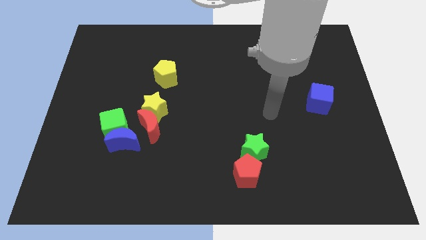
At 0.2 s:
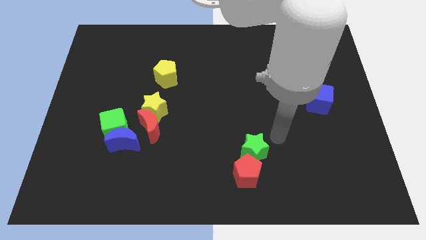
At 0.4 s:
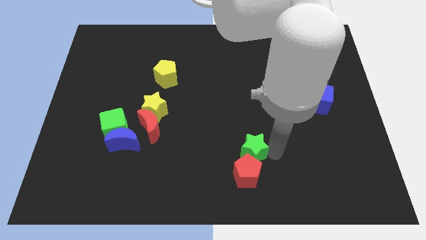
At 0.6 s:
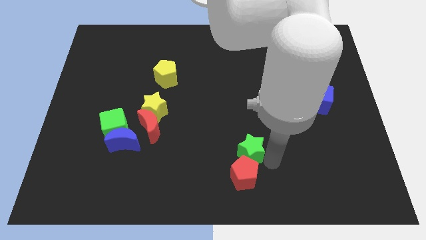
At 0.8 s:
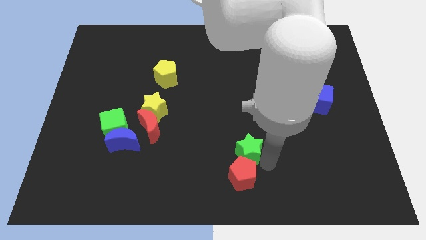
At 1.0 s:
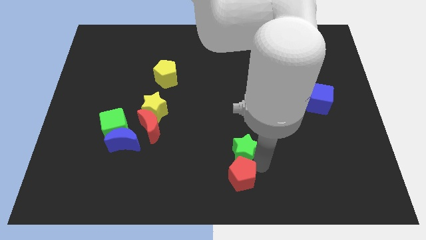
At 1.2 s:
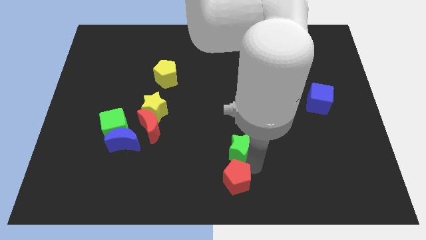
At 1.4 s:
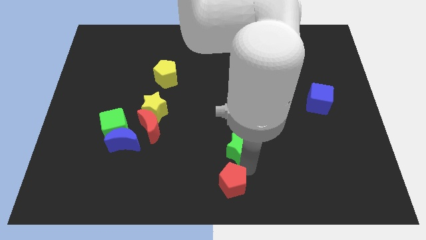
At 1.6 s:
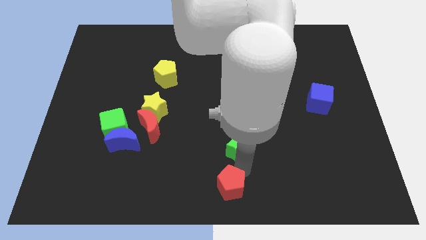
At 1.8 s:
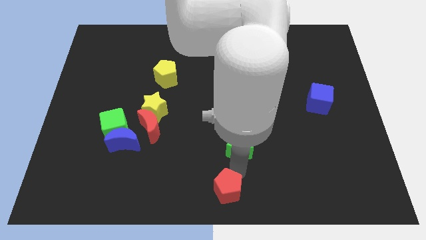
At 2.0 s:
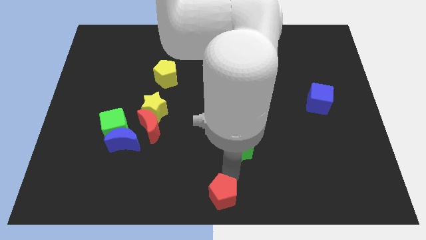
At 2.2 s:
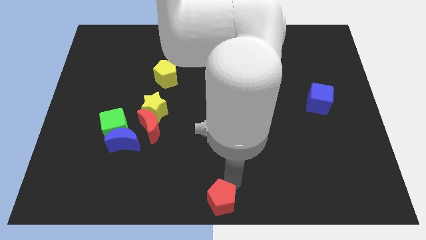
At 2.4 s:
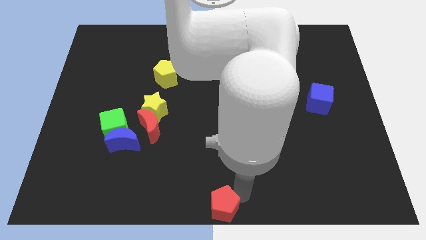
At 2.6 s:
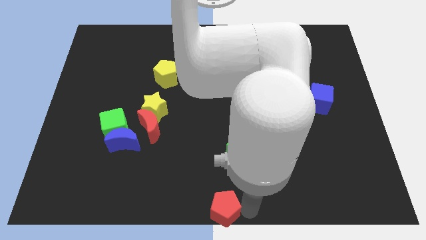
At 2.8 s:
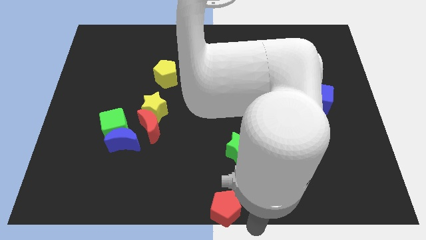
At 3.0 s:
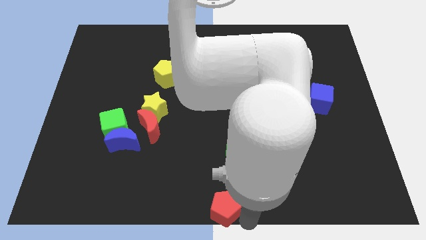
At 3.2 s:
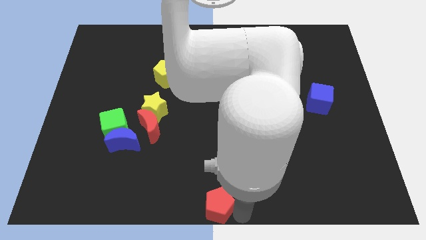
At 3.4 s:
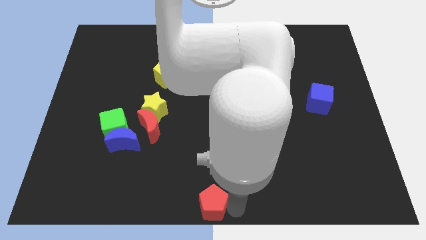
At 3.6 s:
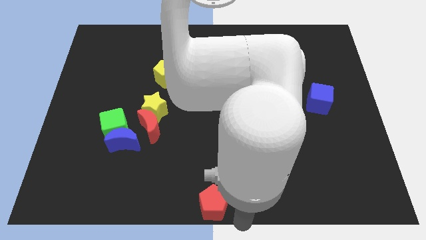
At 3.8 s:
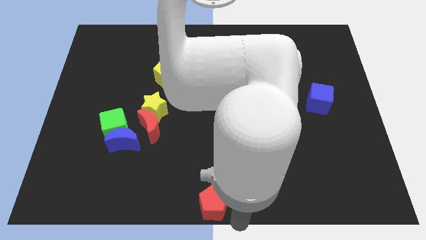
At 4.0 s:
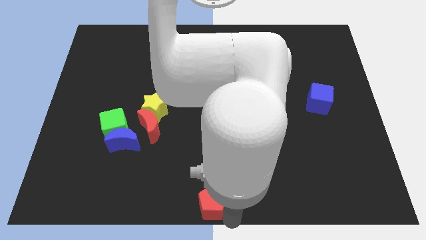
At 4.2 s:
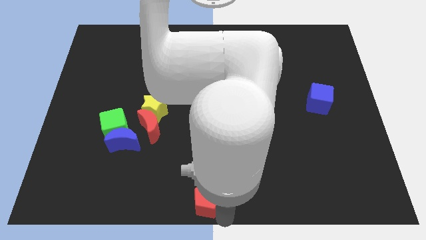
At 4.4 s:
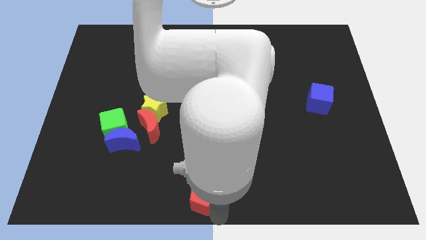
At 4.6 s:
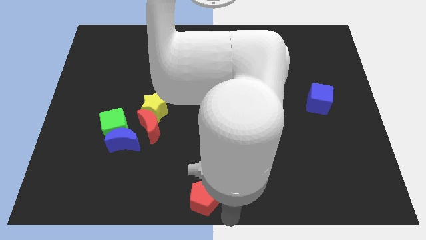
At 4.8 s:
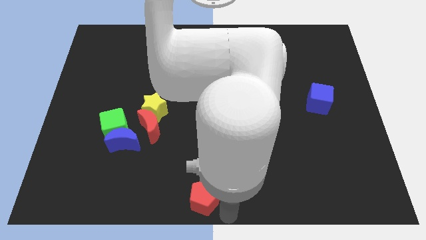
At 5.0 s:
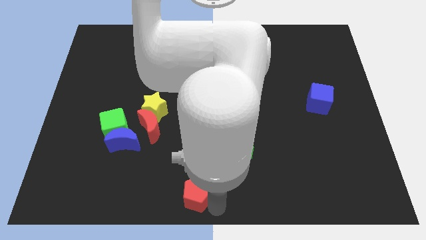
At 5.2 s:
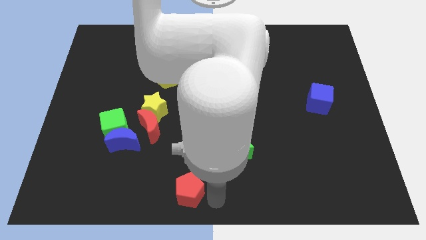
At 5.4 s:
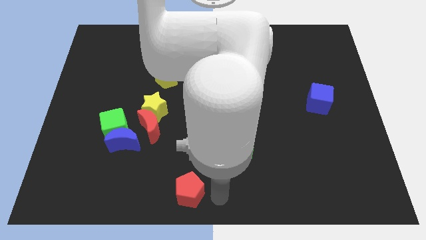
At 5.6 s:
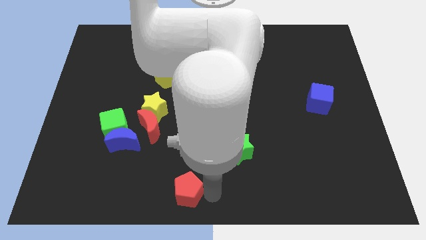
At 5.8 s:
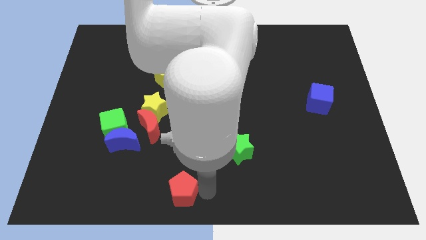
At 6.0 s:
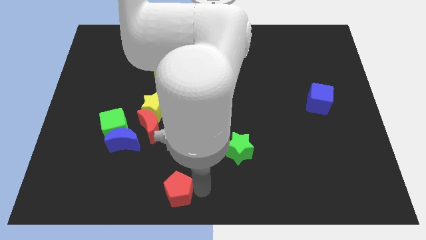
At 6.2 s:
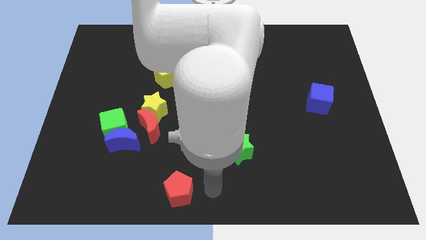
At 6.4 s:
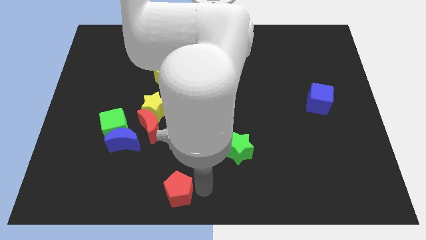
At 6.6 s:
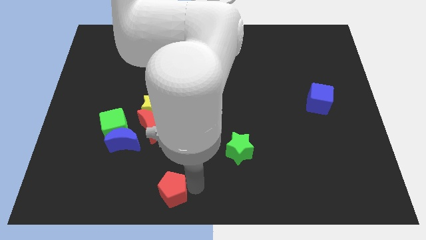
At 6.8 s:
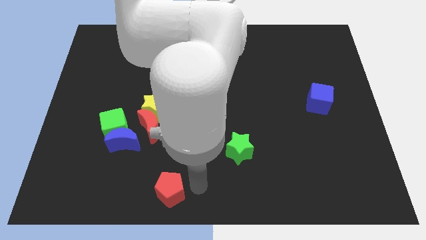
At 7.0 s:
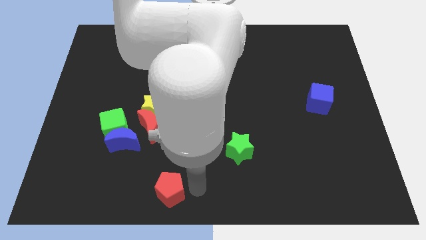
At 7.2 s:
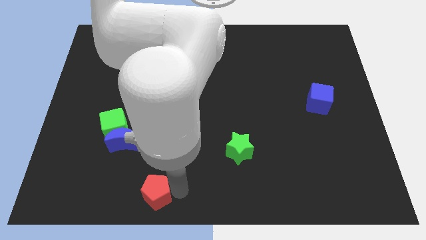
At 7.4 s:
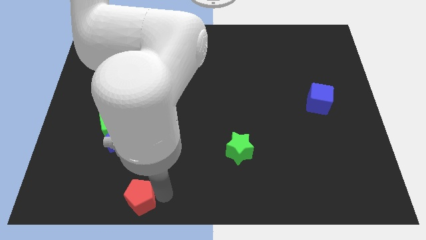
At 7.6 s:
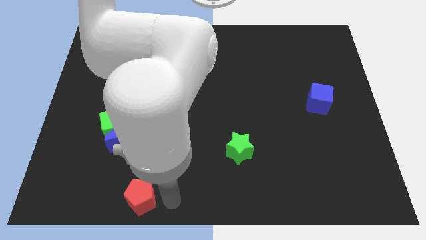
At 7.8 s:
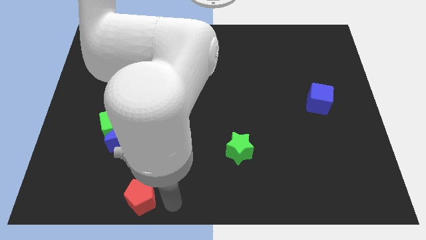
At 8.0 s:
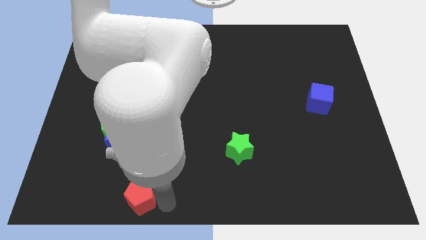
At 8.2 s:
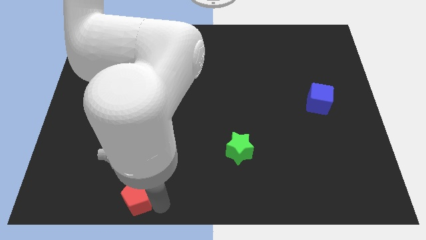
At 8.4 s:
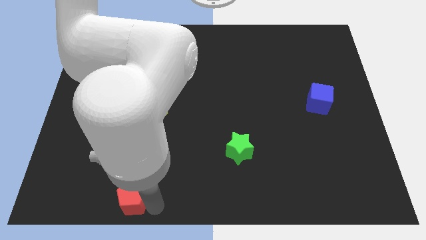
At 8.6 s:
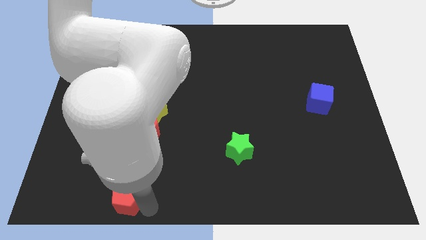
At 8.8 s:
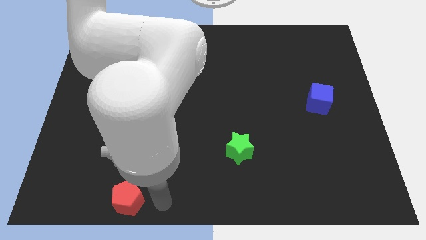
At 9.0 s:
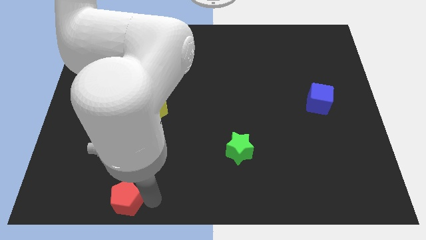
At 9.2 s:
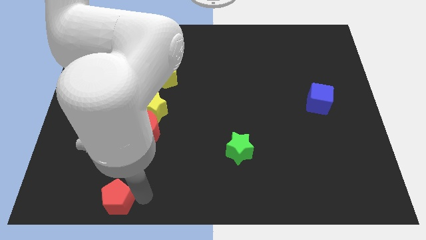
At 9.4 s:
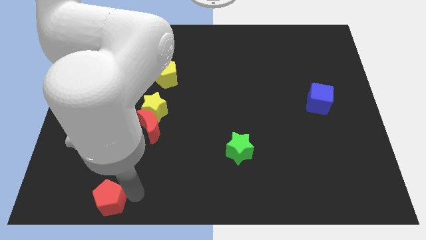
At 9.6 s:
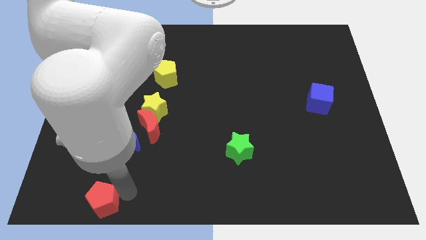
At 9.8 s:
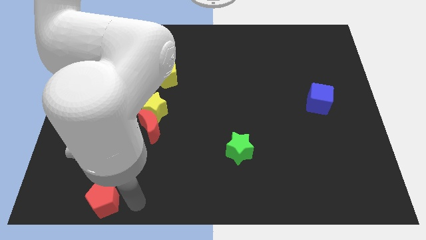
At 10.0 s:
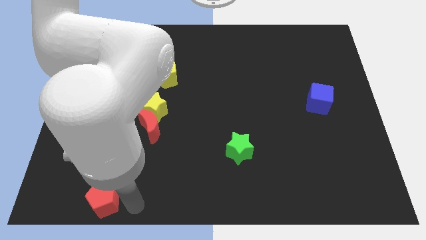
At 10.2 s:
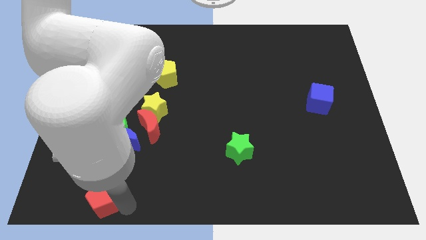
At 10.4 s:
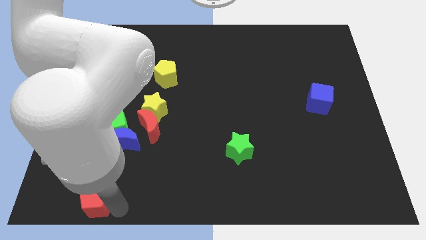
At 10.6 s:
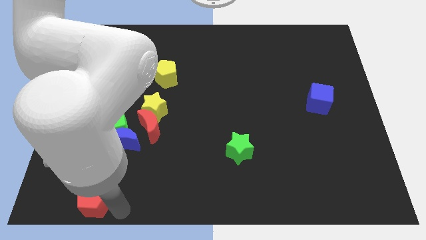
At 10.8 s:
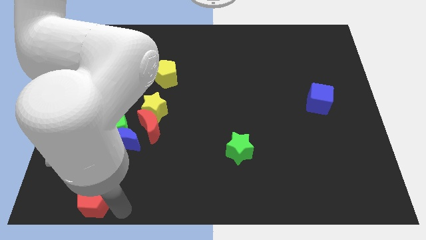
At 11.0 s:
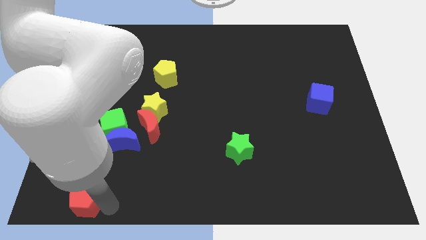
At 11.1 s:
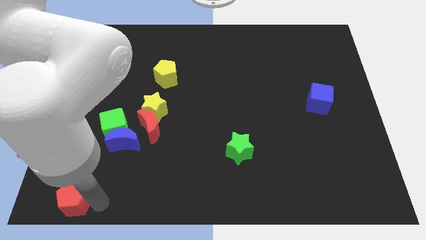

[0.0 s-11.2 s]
push the red pentagon to the lower left corner
